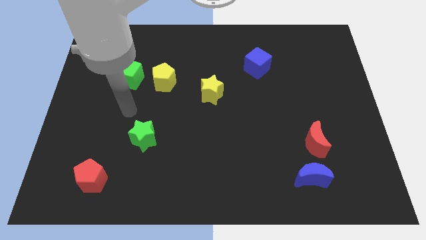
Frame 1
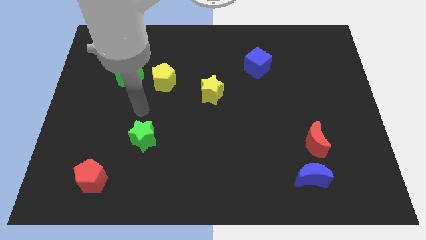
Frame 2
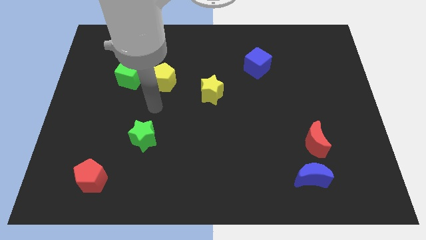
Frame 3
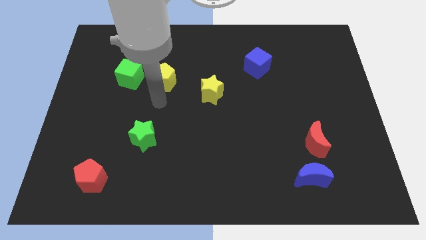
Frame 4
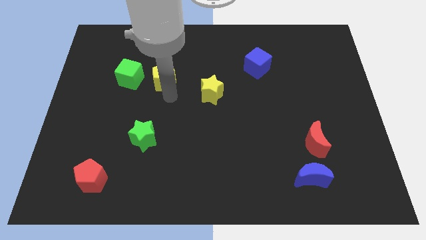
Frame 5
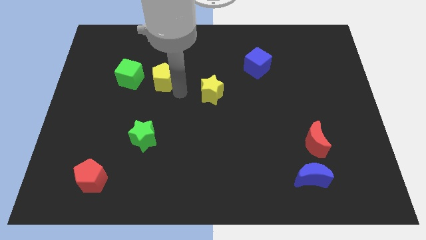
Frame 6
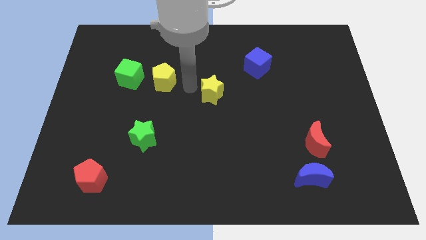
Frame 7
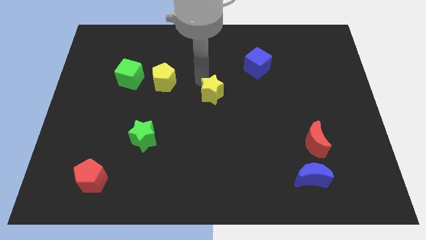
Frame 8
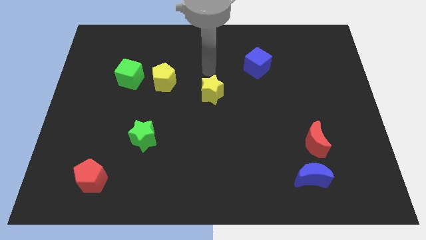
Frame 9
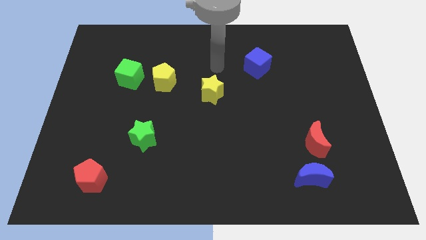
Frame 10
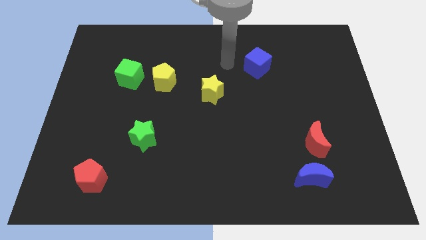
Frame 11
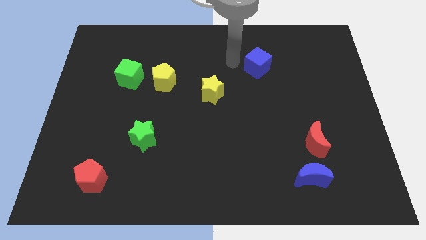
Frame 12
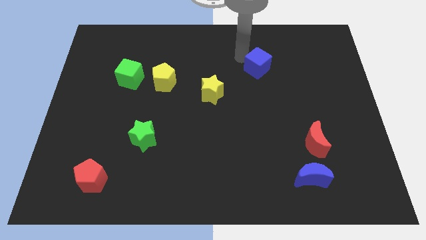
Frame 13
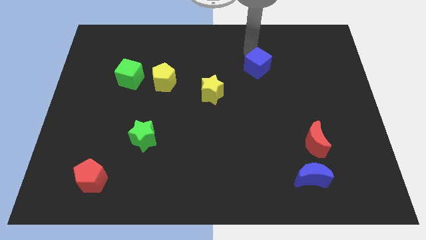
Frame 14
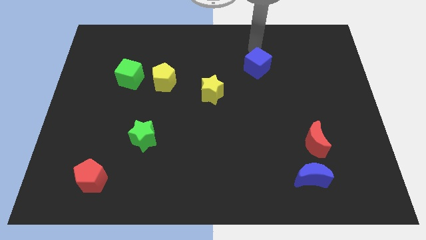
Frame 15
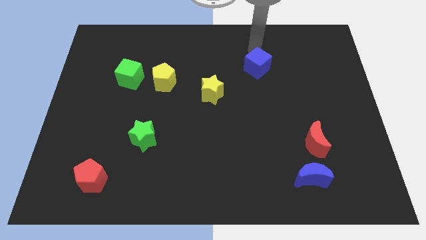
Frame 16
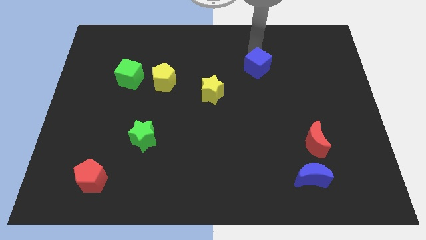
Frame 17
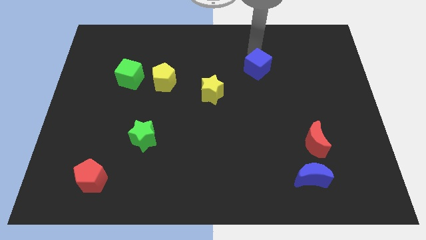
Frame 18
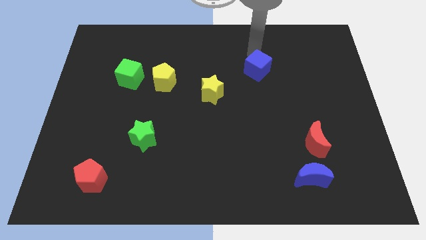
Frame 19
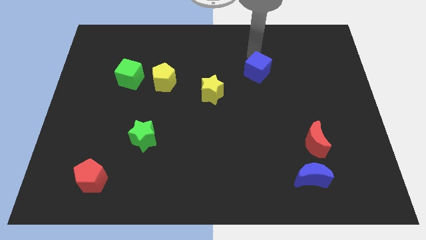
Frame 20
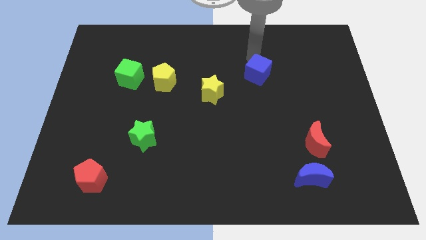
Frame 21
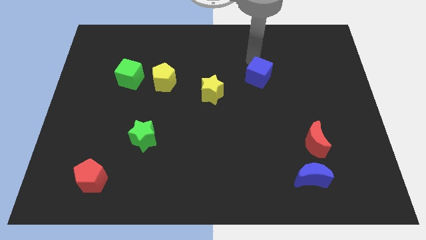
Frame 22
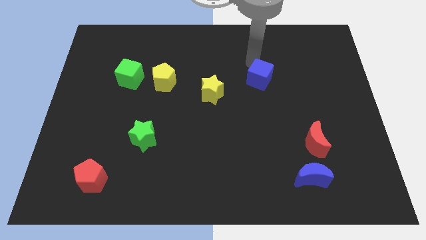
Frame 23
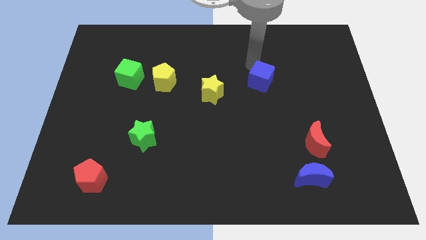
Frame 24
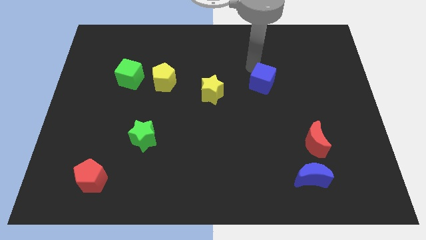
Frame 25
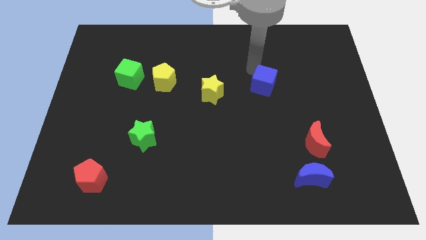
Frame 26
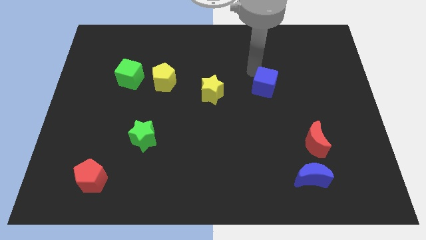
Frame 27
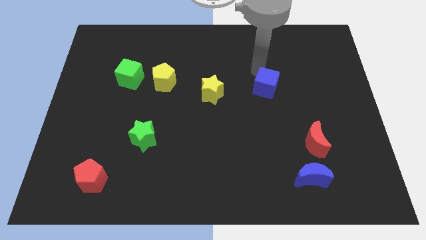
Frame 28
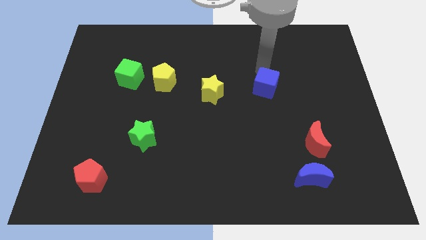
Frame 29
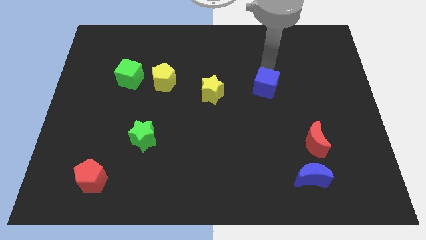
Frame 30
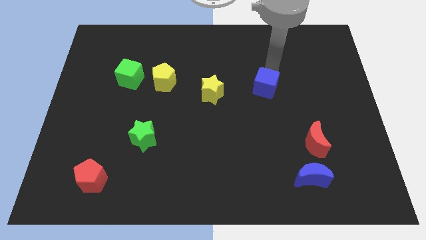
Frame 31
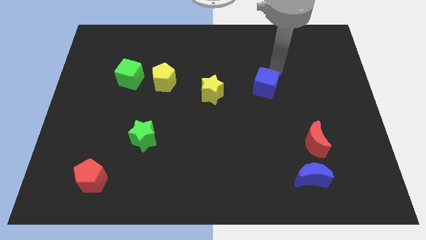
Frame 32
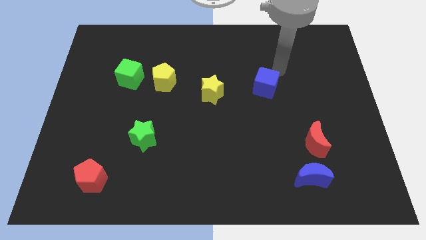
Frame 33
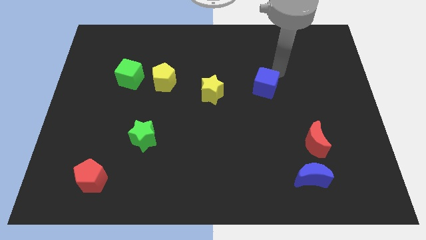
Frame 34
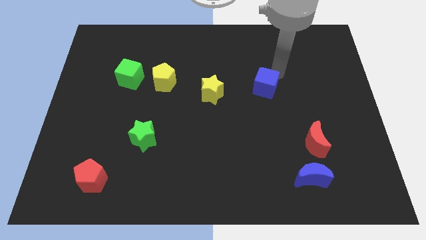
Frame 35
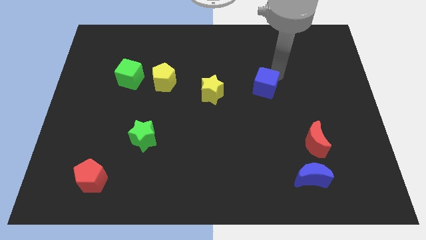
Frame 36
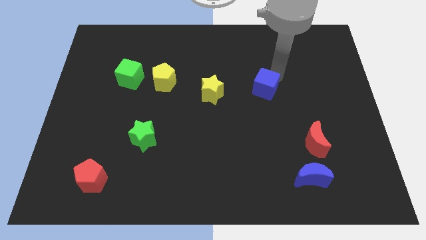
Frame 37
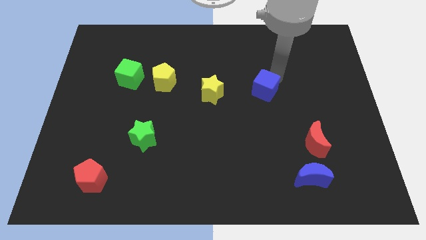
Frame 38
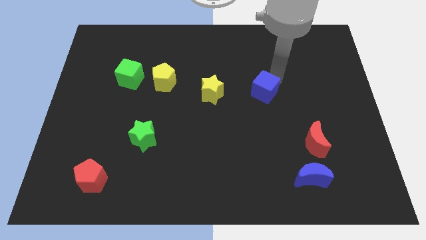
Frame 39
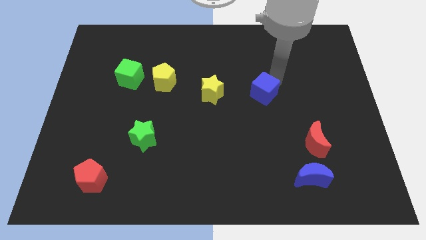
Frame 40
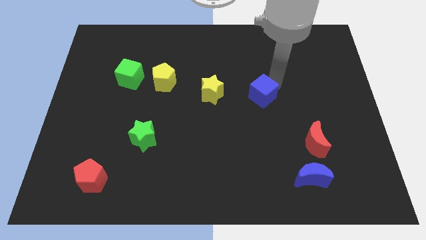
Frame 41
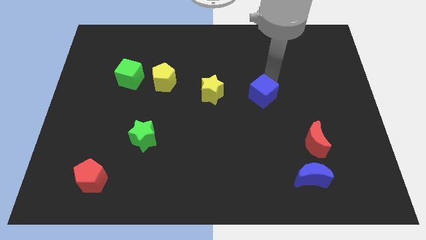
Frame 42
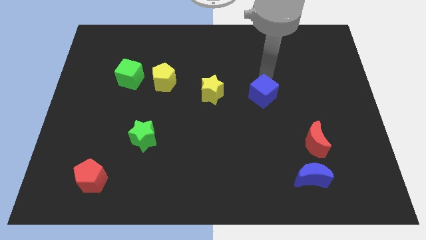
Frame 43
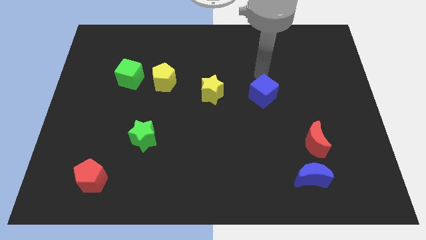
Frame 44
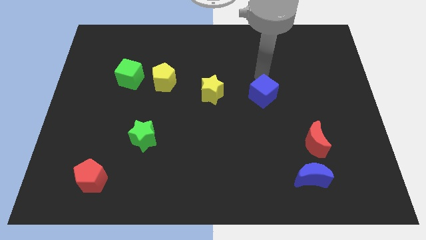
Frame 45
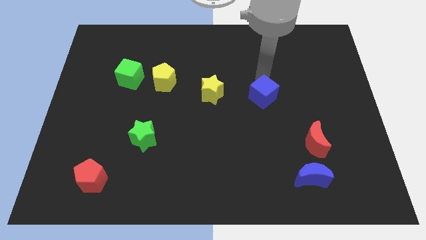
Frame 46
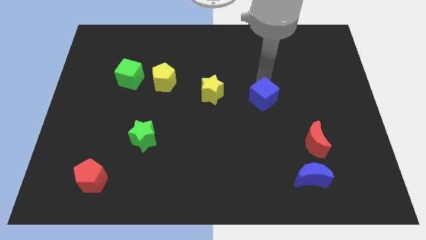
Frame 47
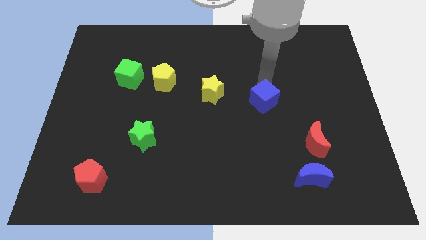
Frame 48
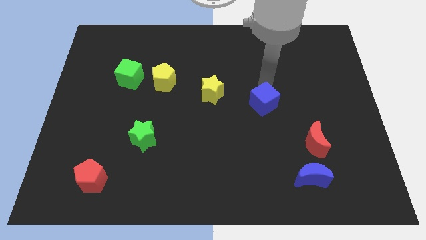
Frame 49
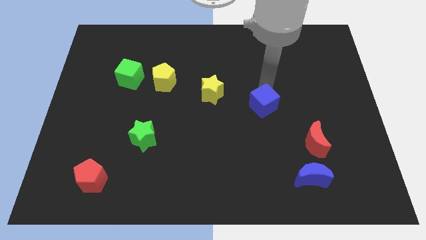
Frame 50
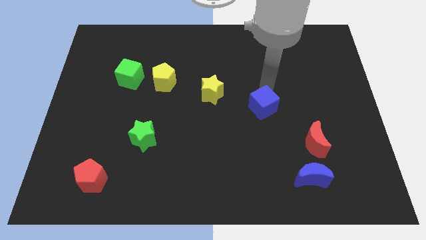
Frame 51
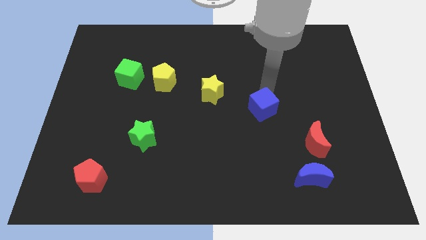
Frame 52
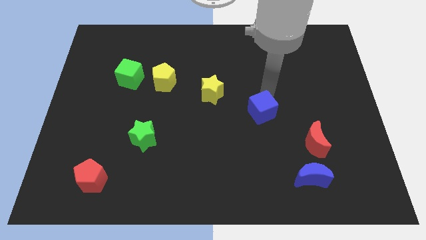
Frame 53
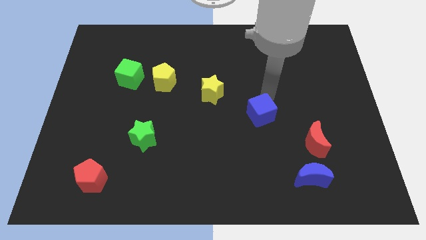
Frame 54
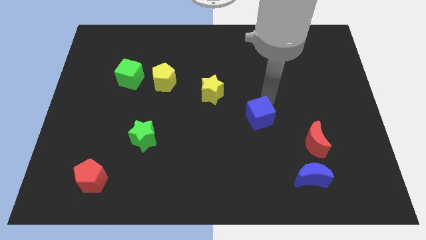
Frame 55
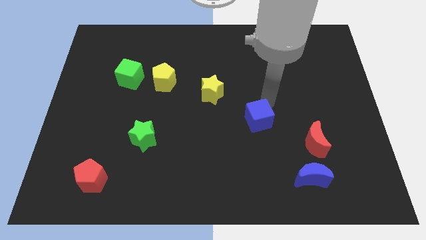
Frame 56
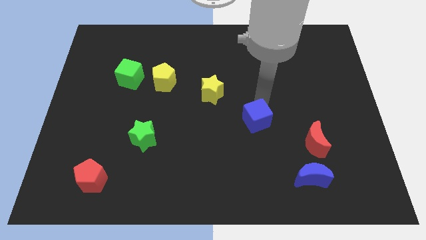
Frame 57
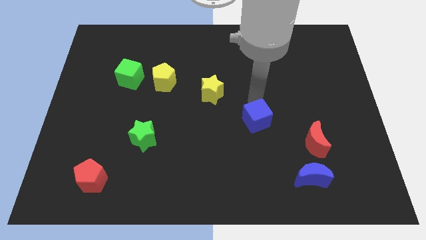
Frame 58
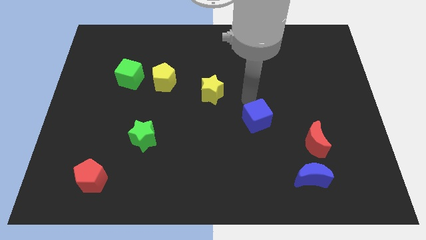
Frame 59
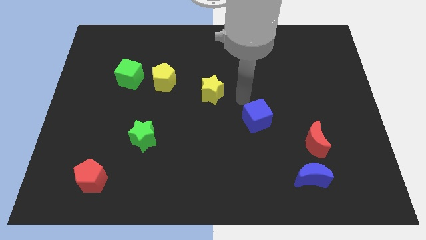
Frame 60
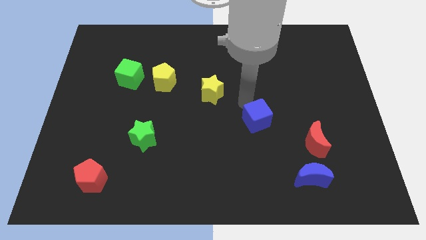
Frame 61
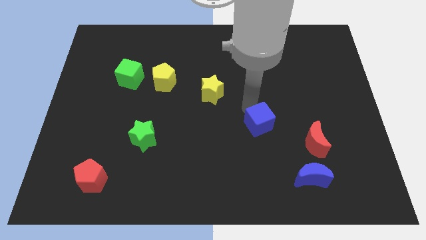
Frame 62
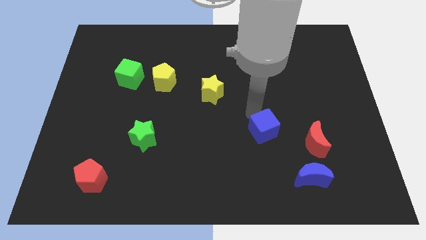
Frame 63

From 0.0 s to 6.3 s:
push the blue cube down

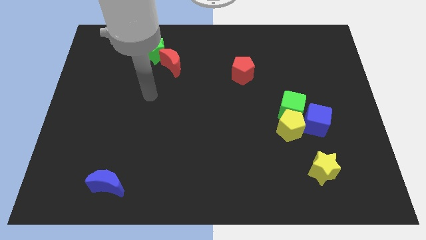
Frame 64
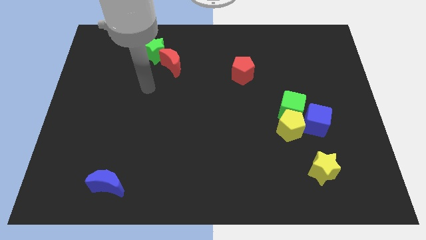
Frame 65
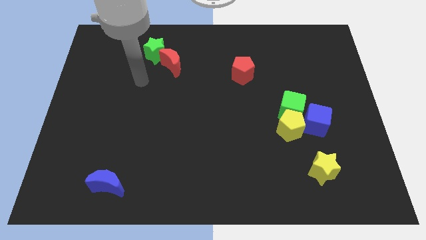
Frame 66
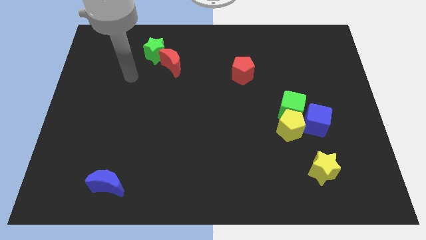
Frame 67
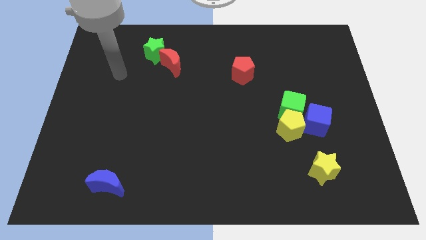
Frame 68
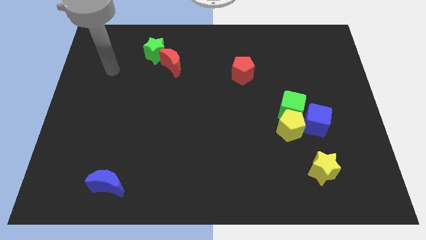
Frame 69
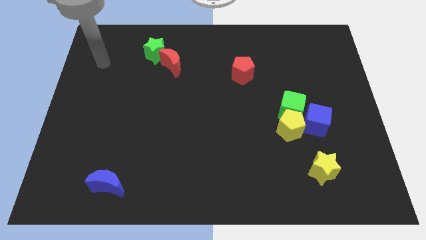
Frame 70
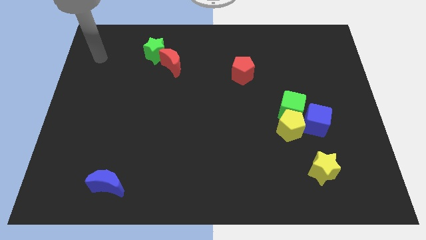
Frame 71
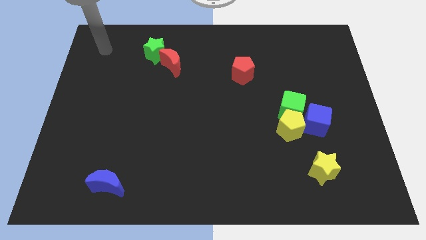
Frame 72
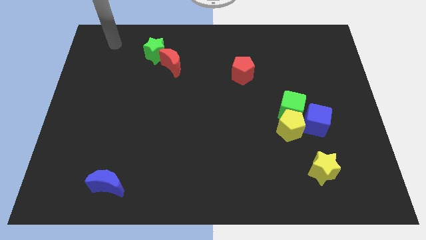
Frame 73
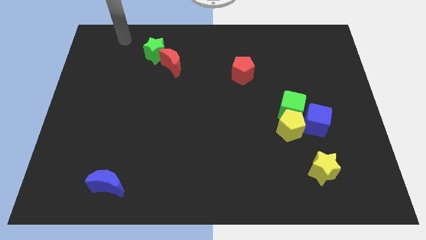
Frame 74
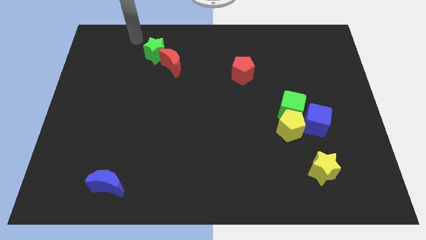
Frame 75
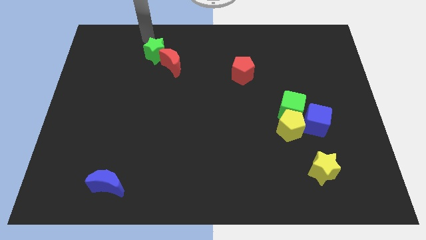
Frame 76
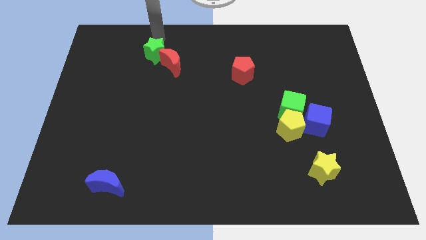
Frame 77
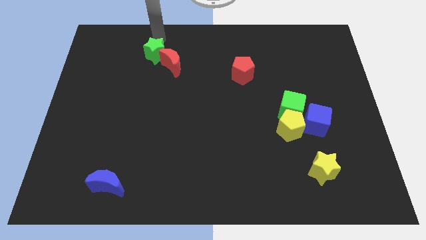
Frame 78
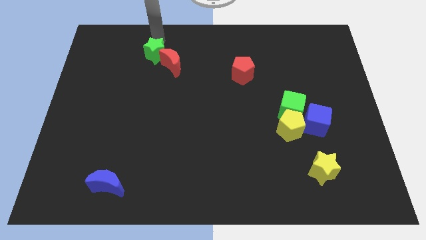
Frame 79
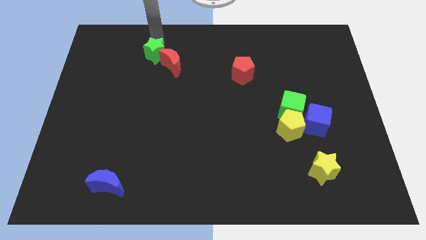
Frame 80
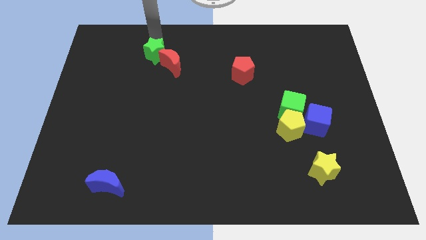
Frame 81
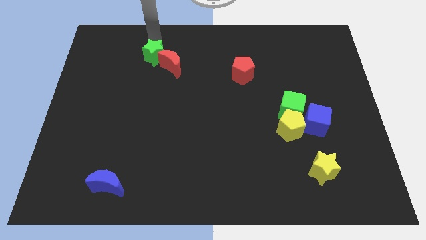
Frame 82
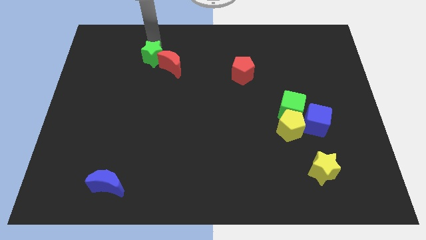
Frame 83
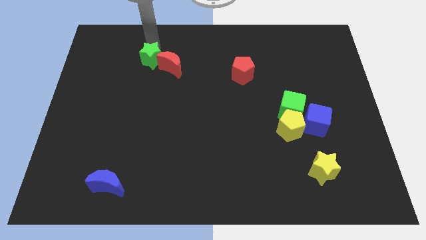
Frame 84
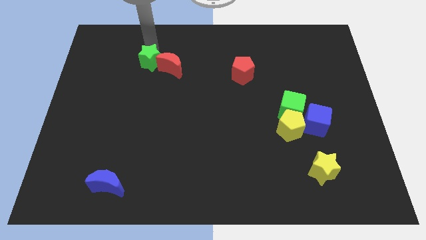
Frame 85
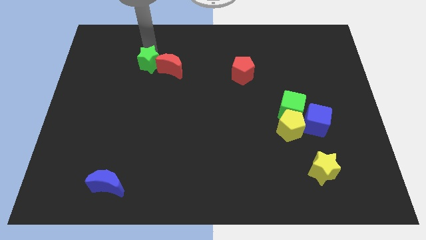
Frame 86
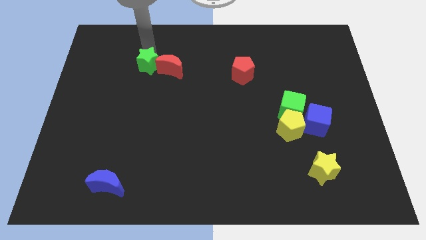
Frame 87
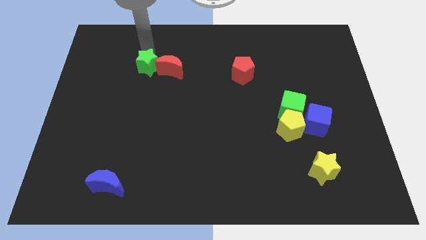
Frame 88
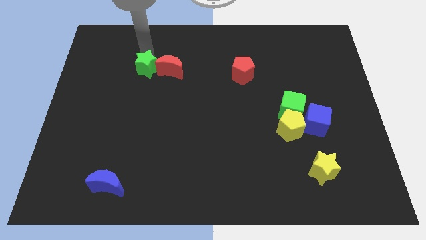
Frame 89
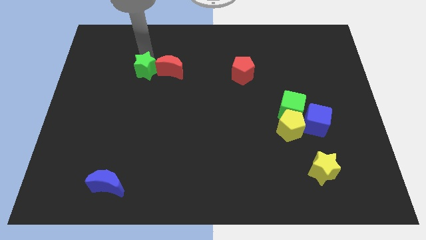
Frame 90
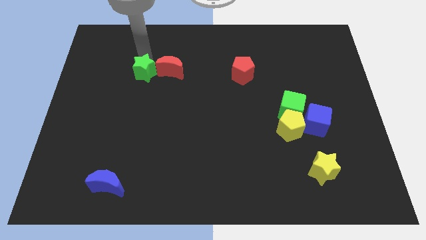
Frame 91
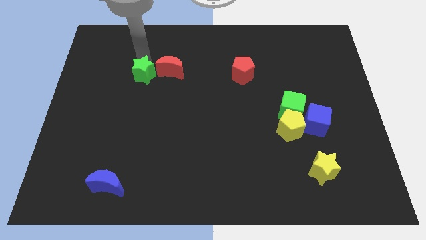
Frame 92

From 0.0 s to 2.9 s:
slightly slide the green star down
